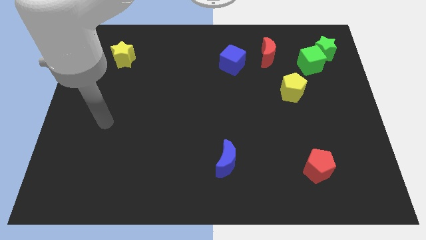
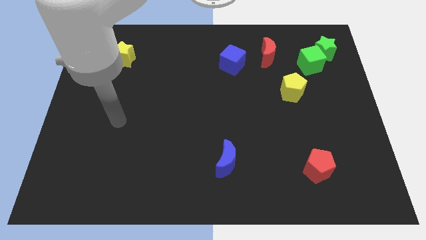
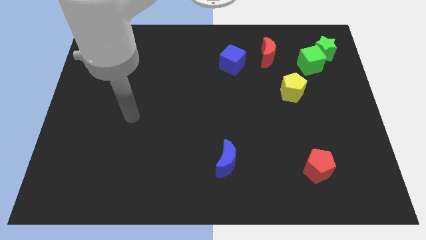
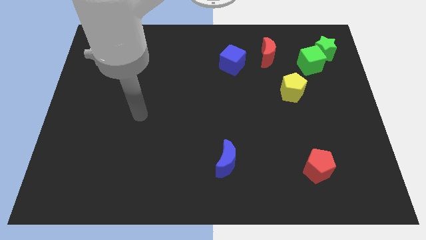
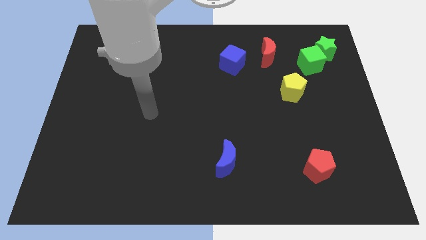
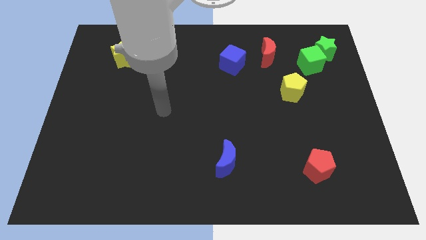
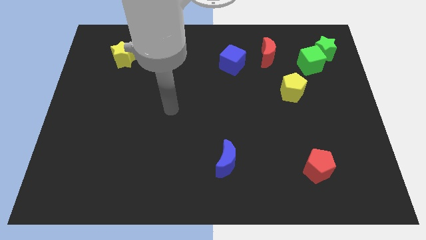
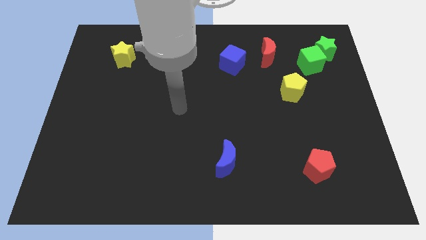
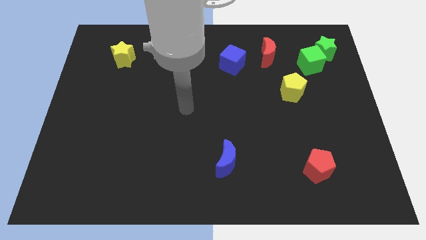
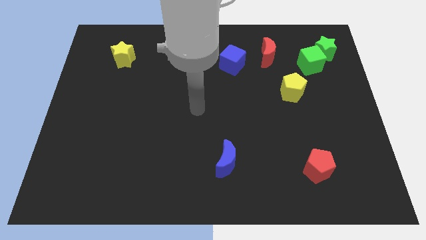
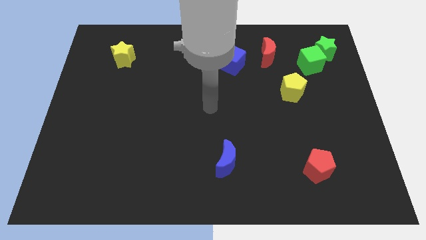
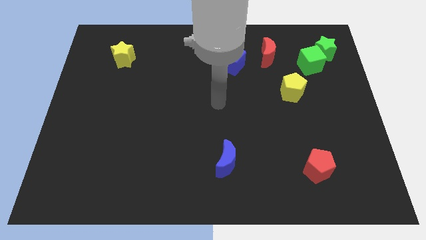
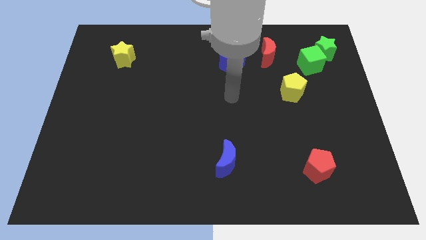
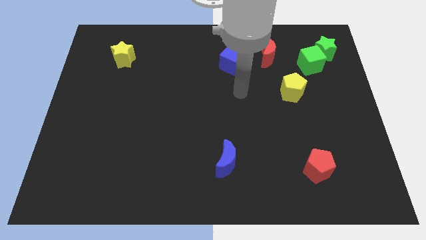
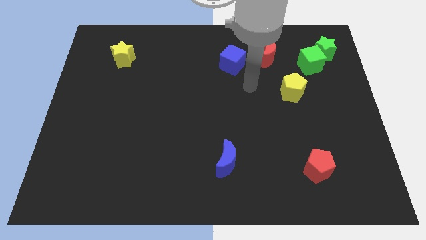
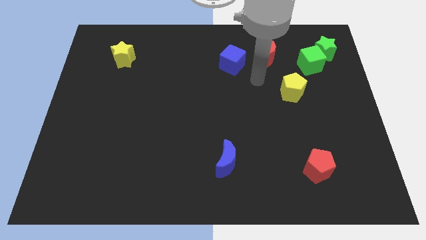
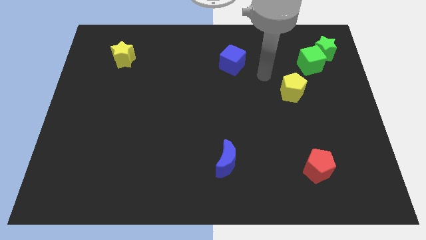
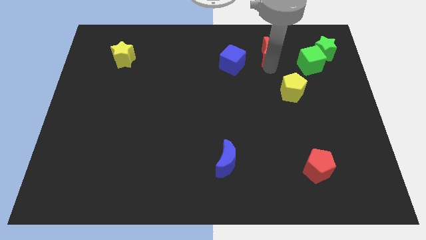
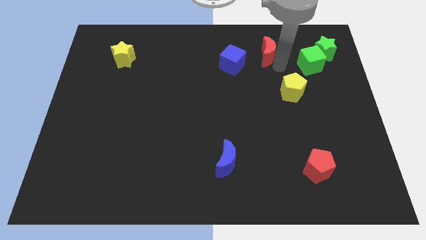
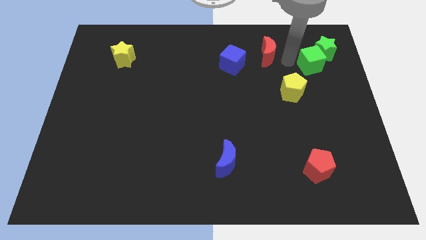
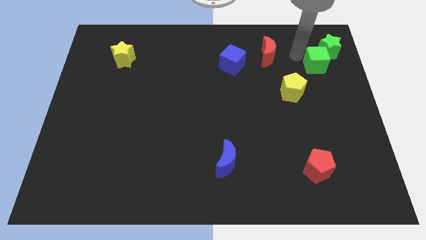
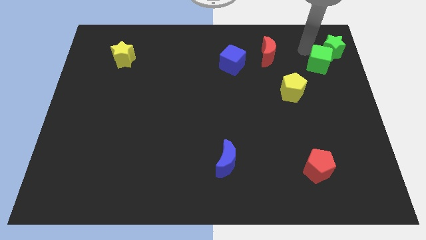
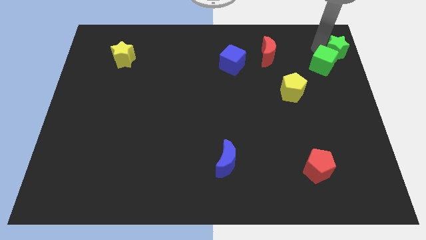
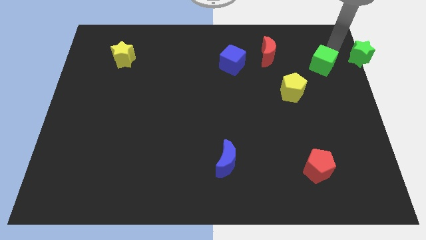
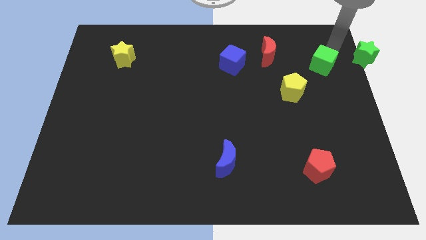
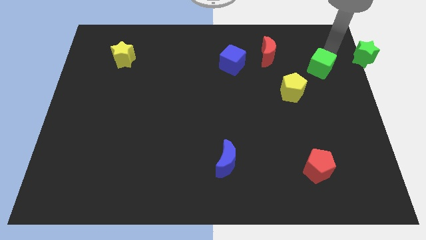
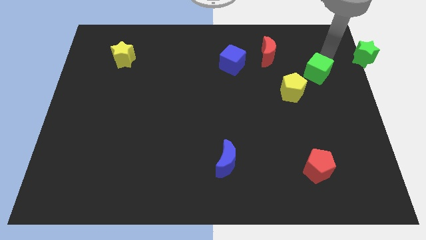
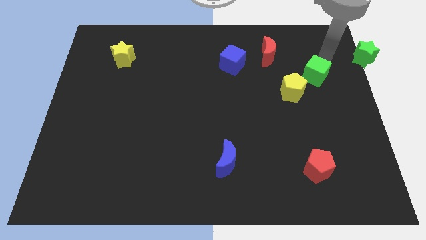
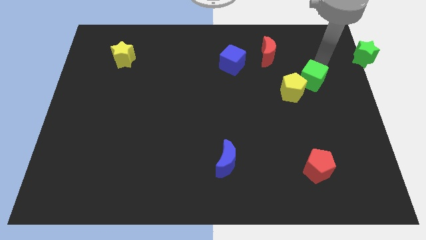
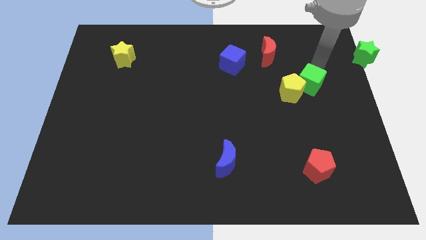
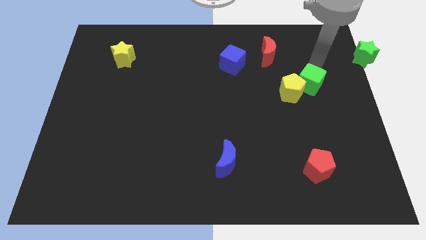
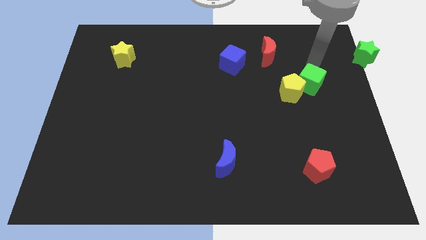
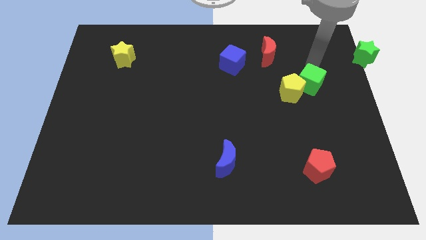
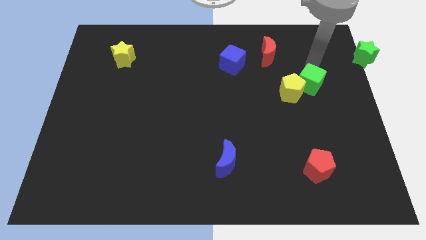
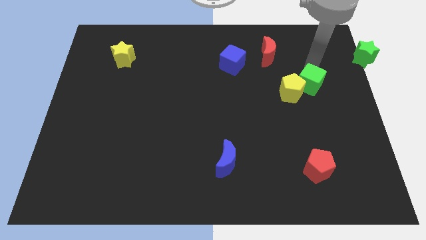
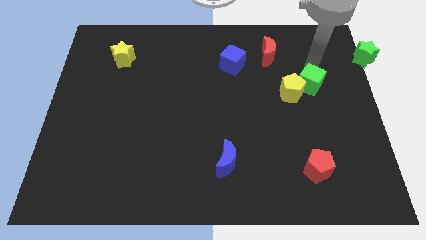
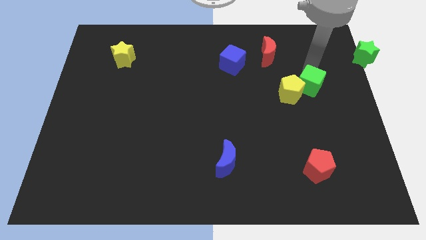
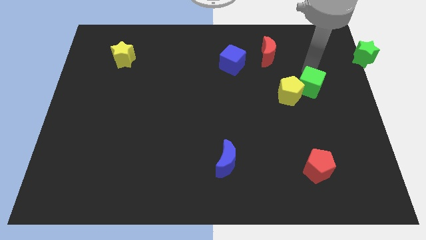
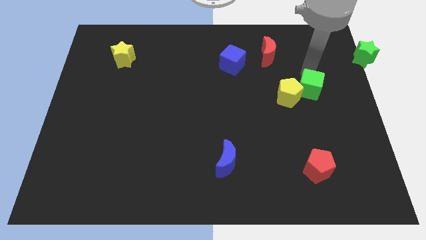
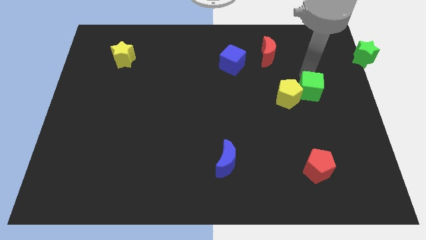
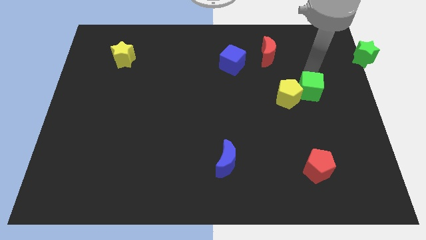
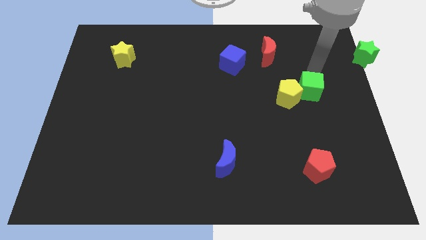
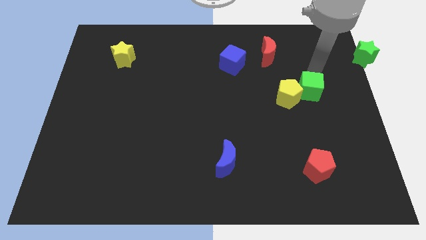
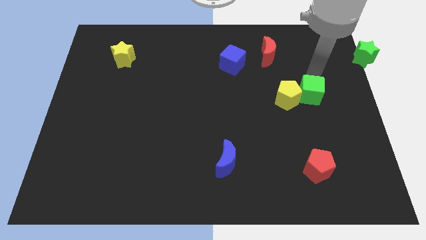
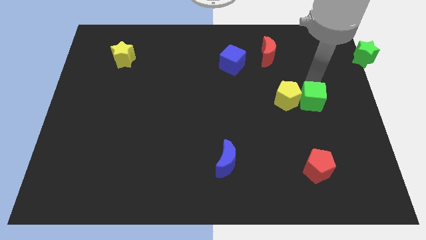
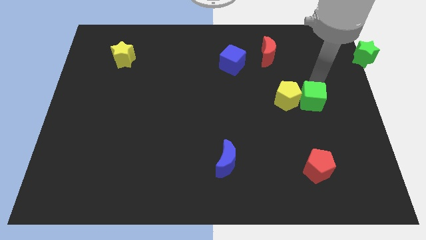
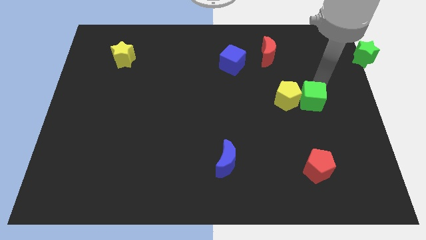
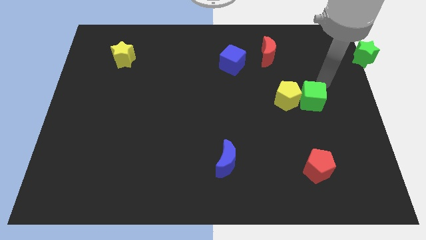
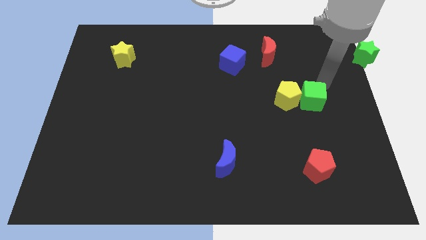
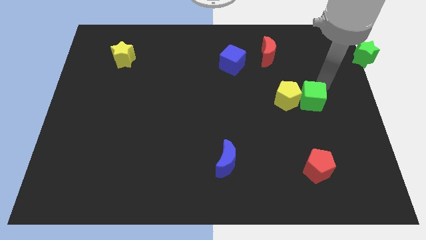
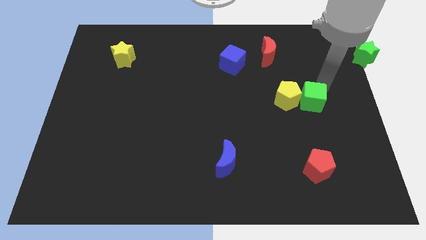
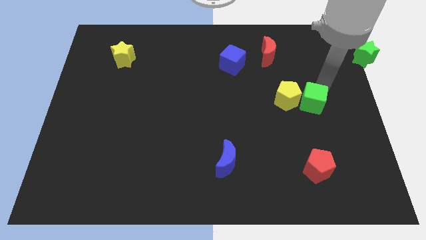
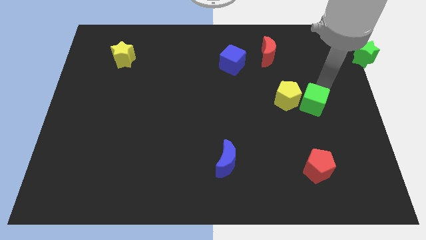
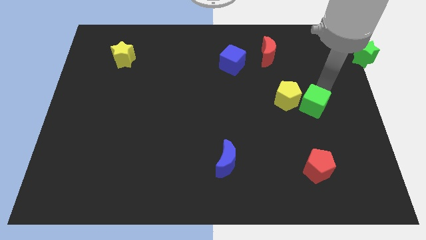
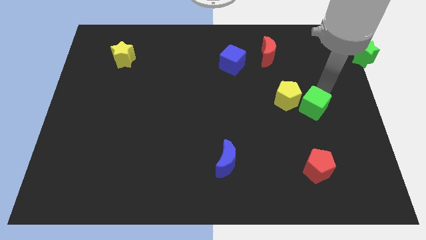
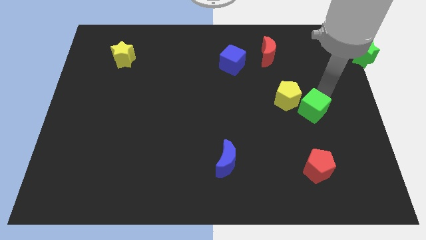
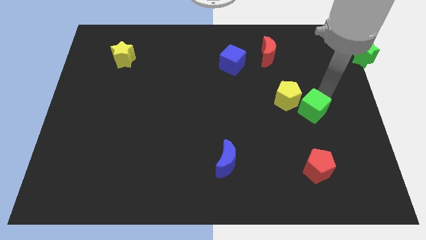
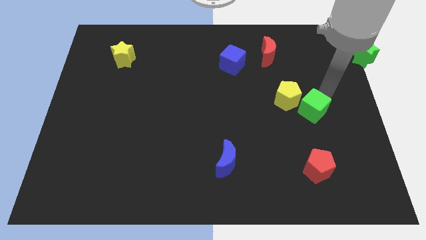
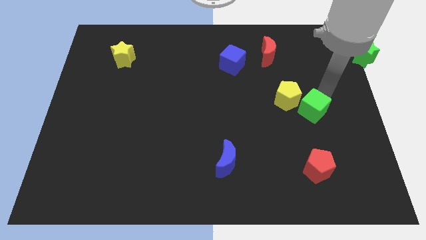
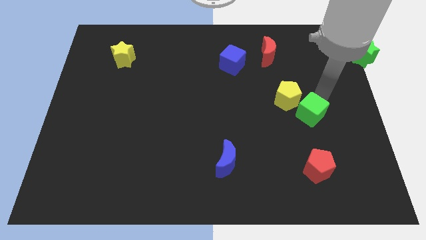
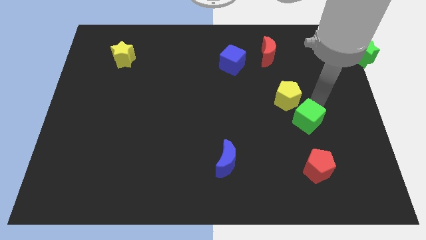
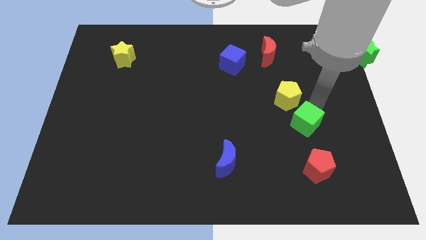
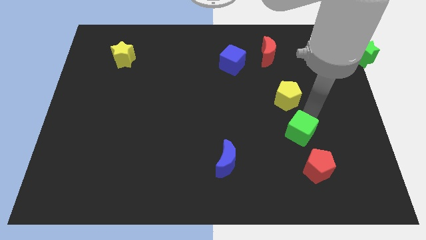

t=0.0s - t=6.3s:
push the green cube to the top left of the red pentagon

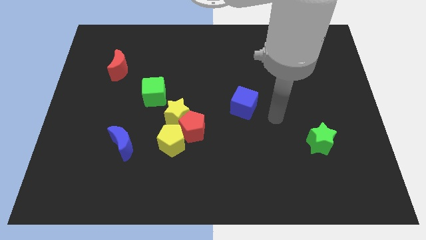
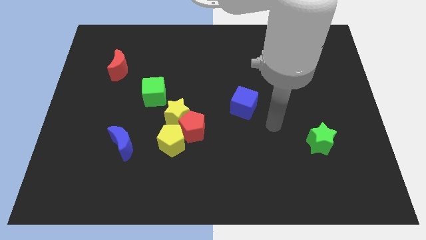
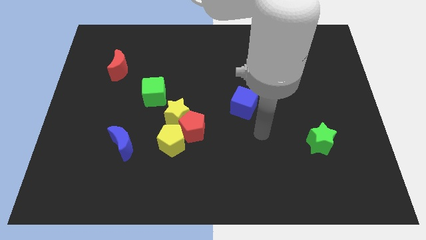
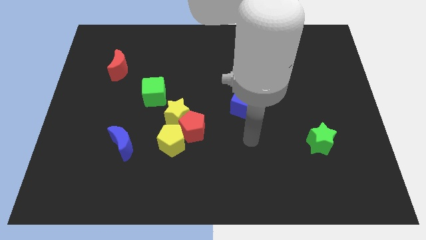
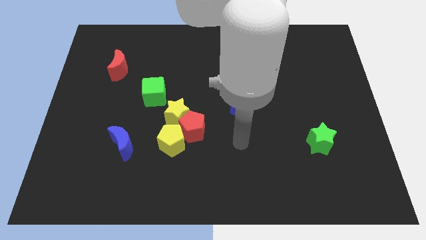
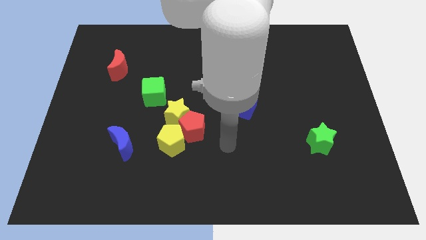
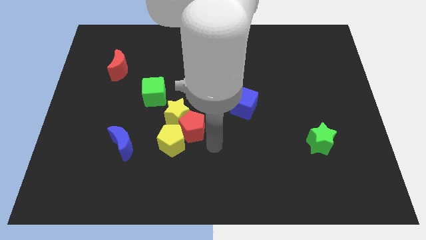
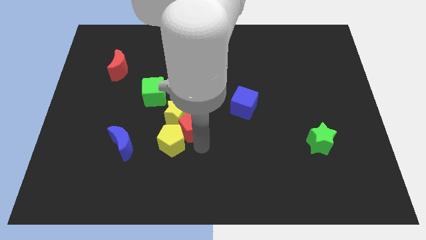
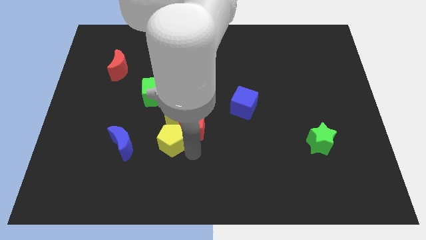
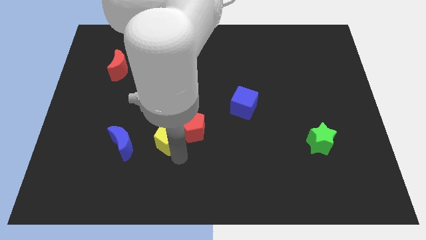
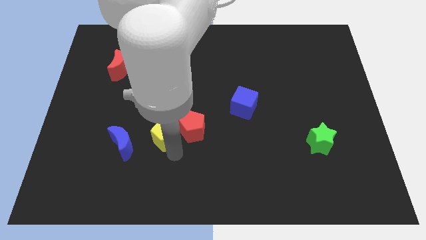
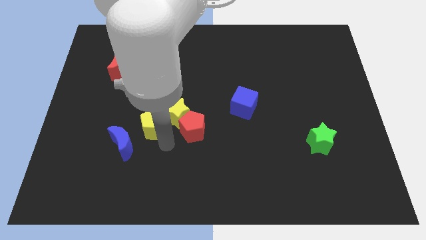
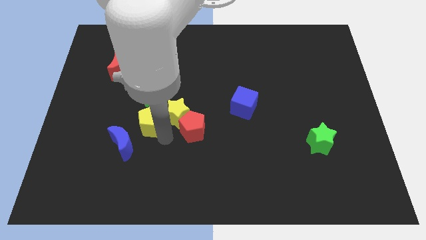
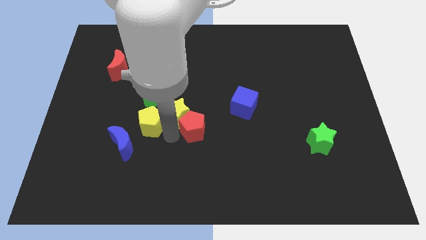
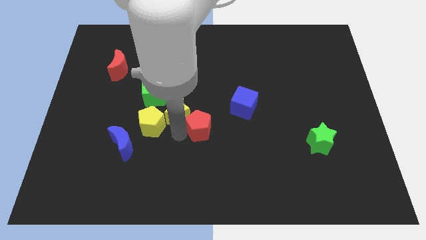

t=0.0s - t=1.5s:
put the red pentagon to the bottom left side of the blue cube
